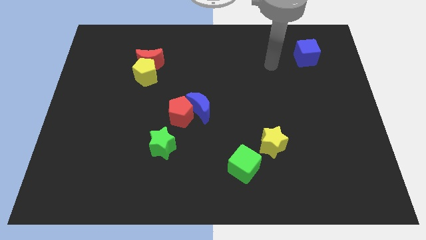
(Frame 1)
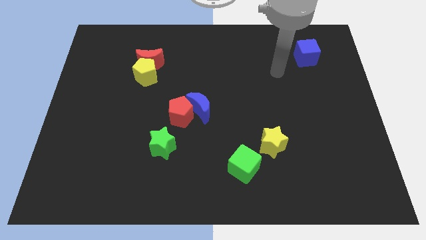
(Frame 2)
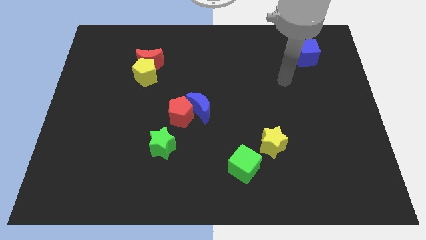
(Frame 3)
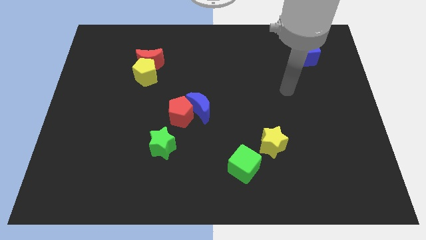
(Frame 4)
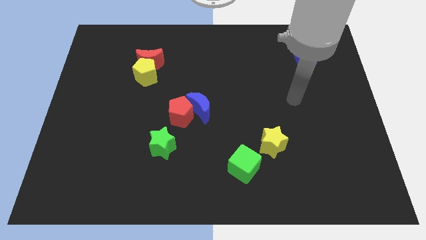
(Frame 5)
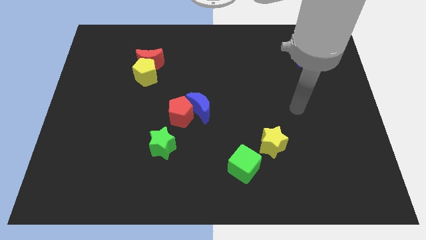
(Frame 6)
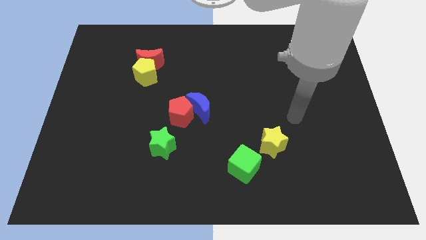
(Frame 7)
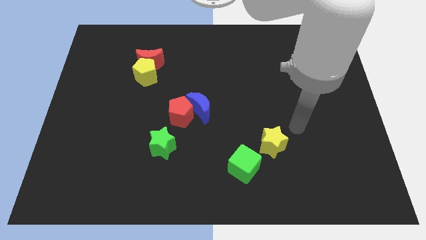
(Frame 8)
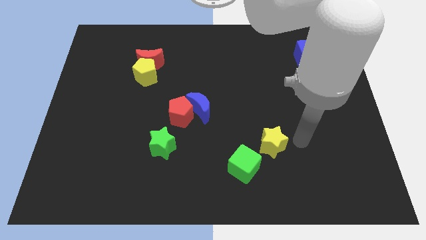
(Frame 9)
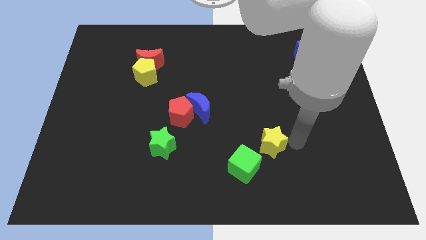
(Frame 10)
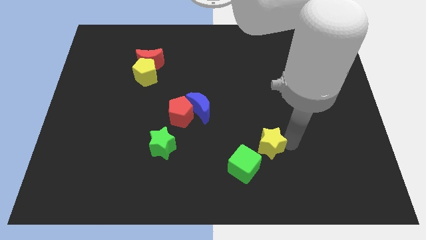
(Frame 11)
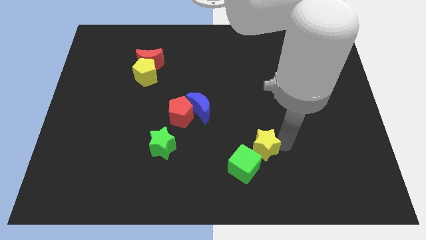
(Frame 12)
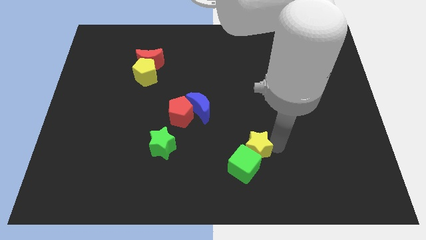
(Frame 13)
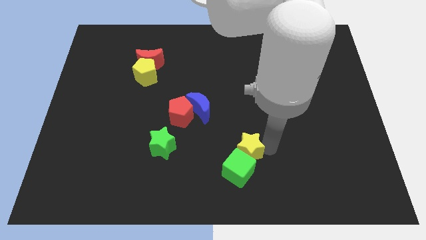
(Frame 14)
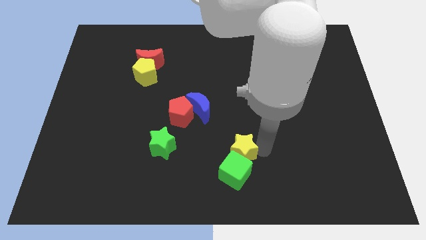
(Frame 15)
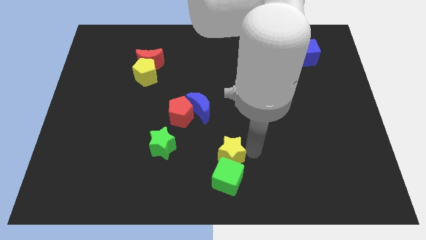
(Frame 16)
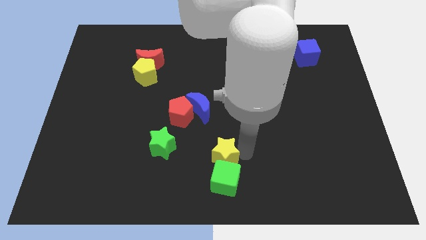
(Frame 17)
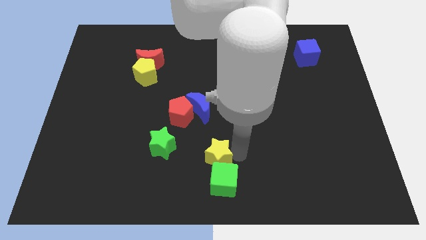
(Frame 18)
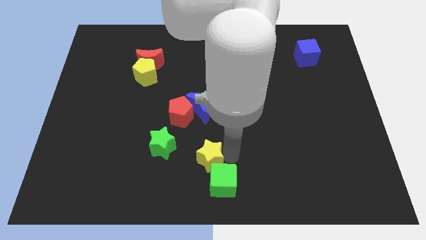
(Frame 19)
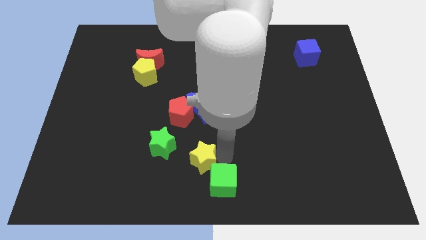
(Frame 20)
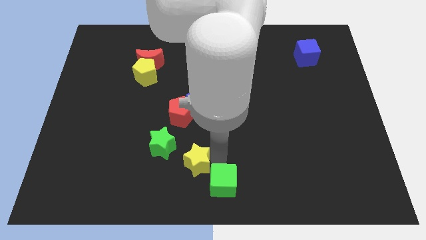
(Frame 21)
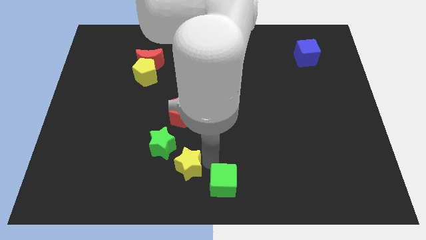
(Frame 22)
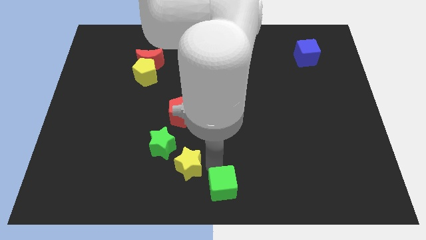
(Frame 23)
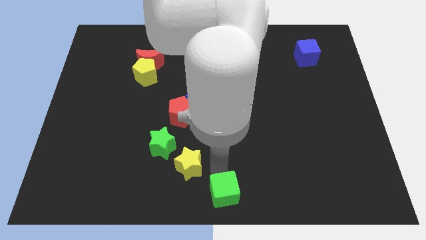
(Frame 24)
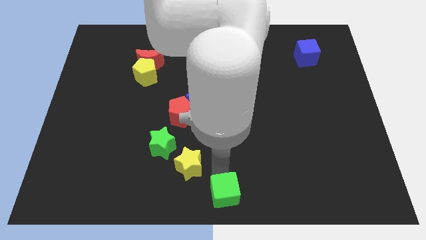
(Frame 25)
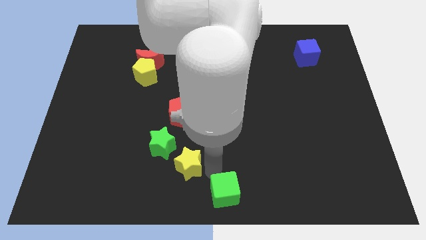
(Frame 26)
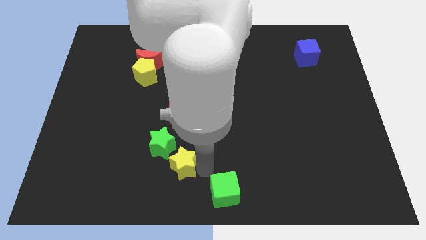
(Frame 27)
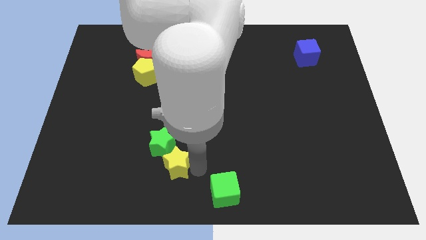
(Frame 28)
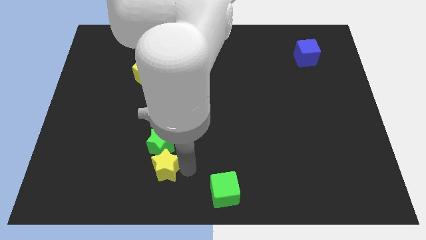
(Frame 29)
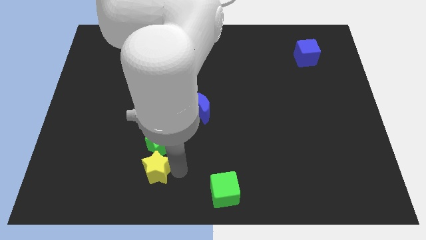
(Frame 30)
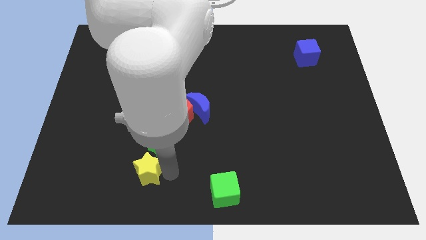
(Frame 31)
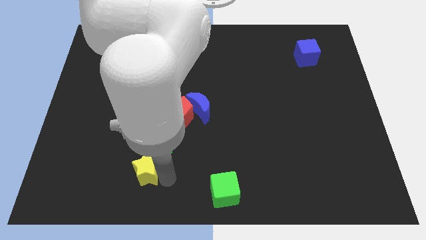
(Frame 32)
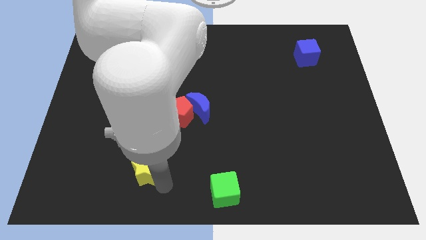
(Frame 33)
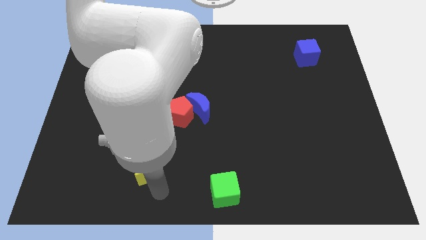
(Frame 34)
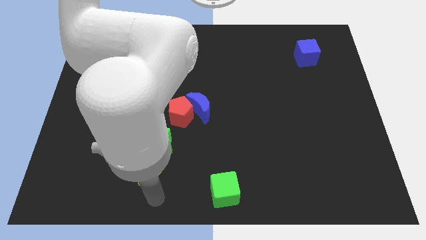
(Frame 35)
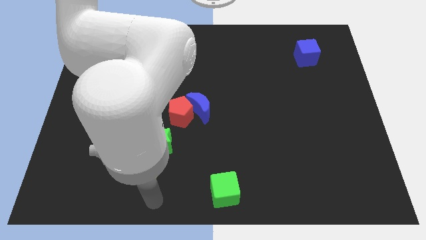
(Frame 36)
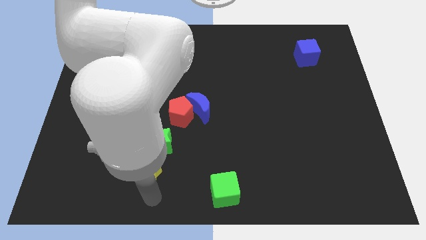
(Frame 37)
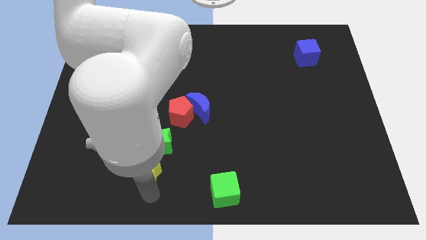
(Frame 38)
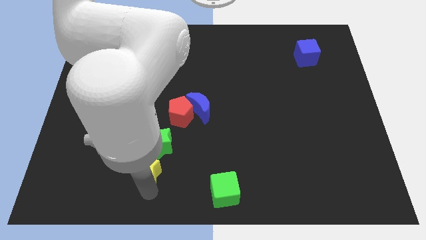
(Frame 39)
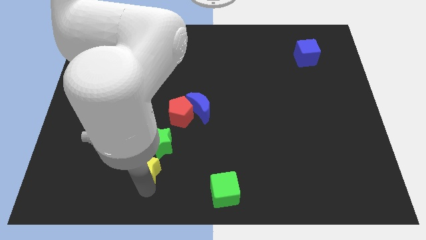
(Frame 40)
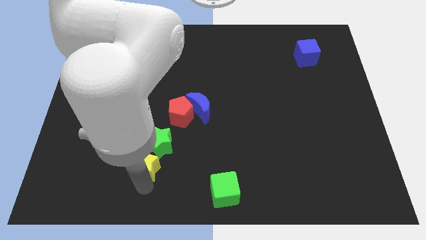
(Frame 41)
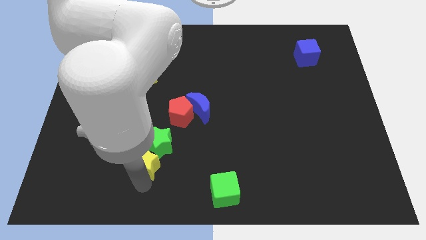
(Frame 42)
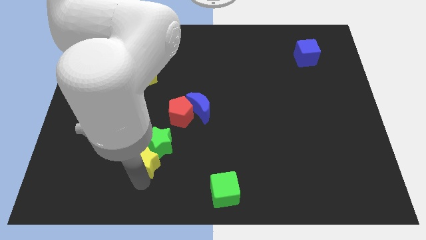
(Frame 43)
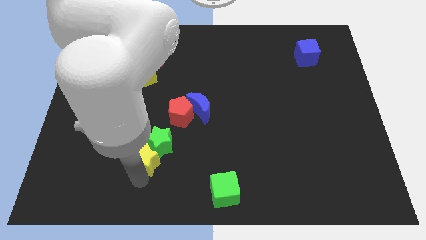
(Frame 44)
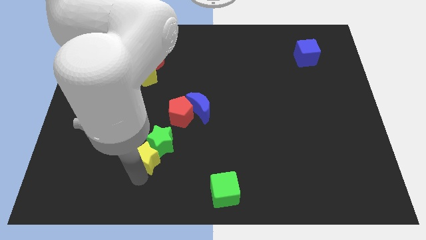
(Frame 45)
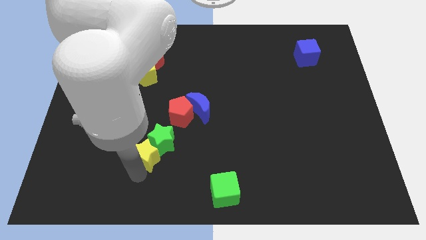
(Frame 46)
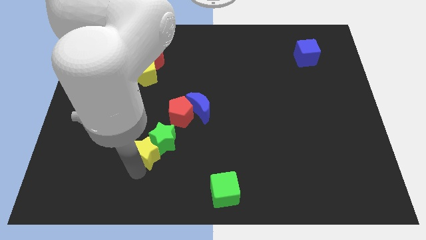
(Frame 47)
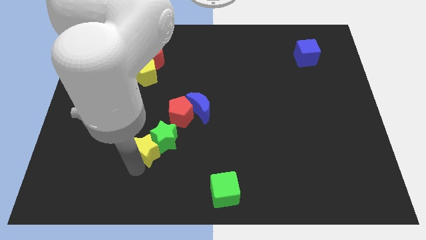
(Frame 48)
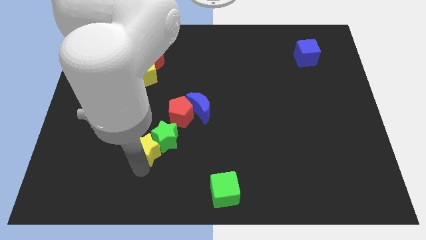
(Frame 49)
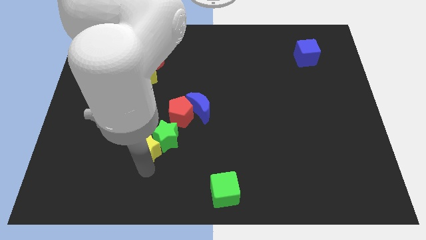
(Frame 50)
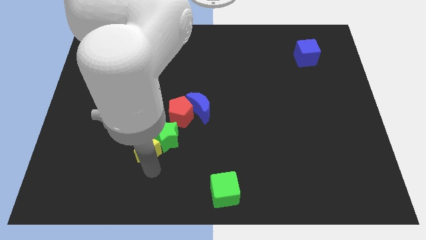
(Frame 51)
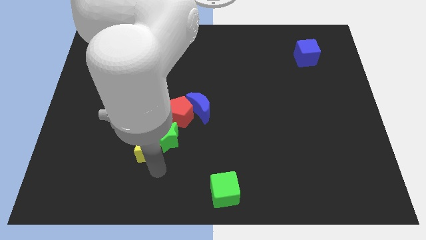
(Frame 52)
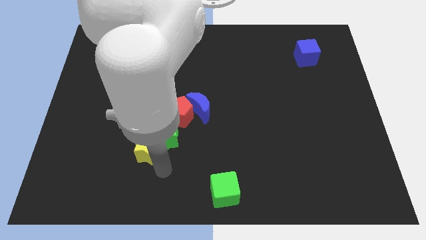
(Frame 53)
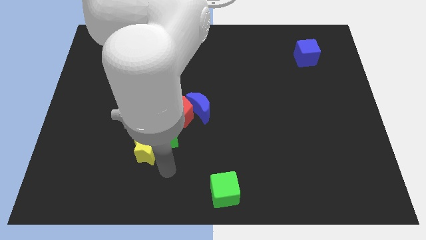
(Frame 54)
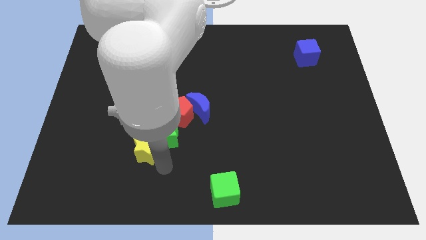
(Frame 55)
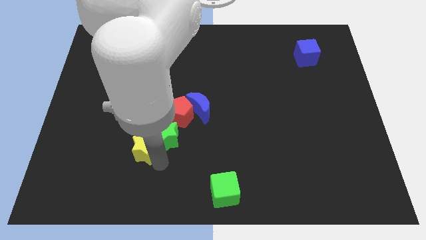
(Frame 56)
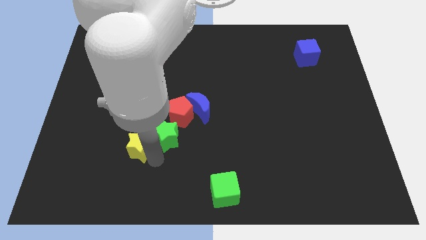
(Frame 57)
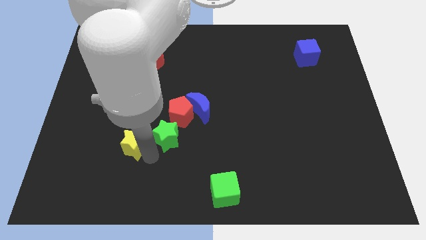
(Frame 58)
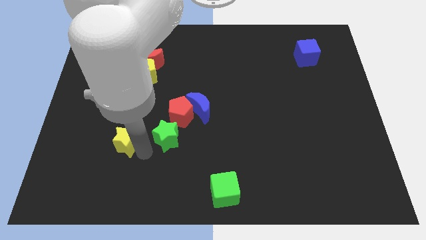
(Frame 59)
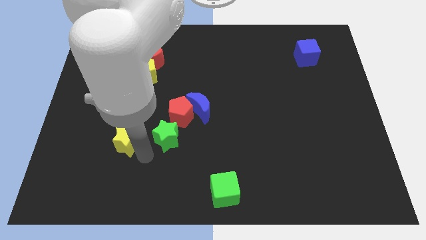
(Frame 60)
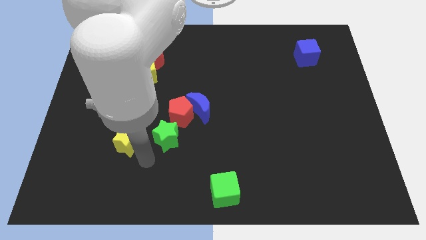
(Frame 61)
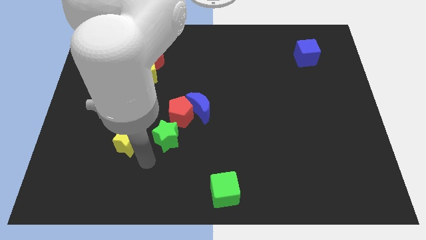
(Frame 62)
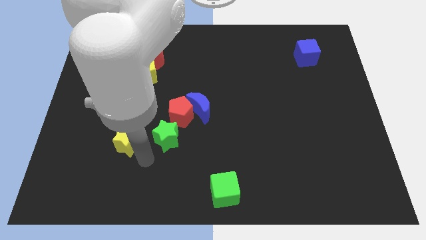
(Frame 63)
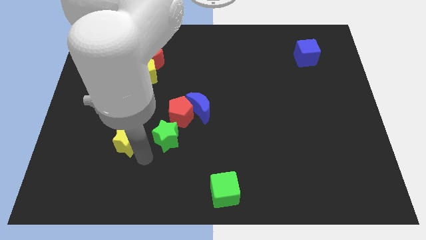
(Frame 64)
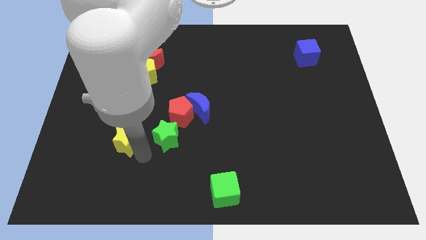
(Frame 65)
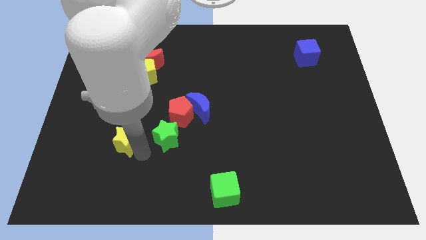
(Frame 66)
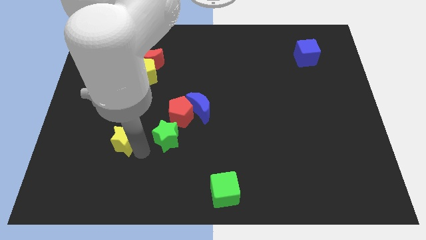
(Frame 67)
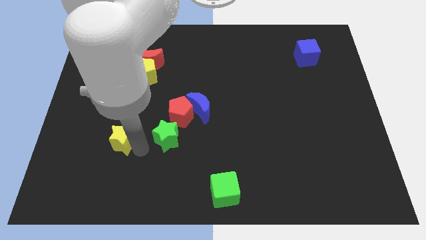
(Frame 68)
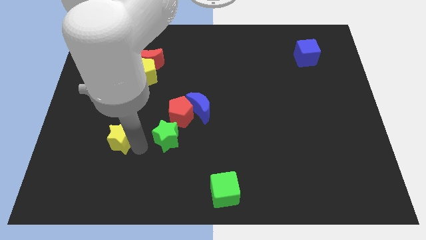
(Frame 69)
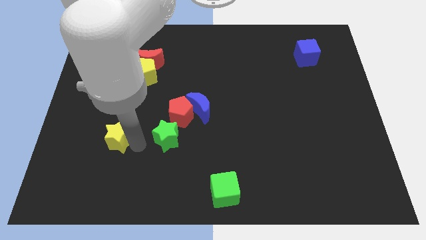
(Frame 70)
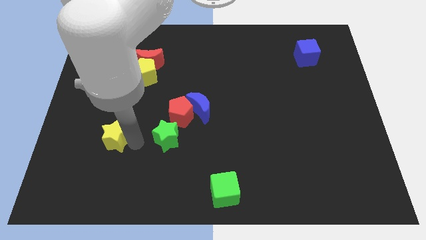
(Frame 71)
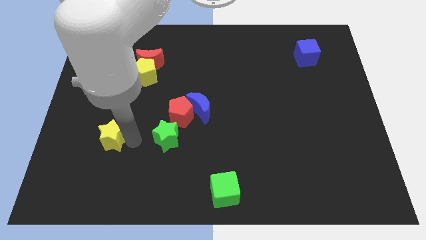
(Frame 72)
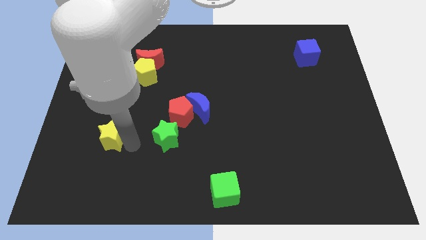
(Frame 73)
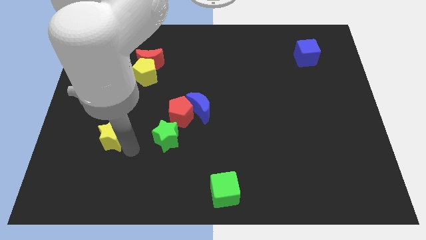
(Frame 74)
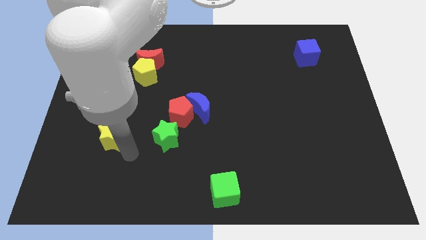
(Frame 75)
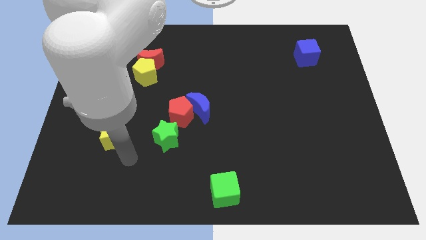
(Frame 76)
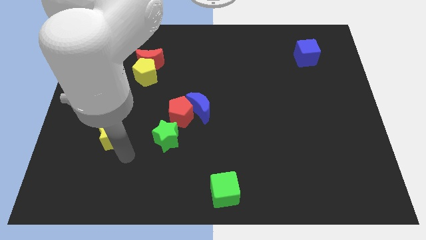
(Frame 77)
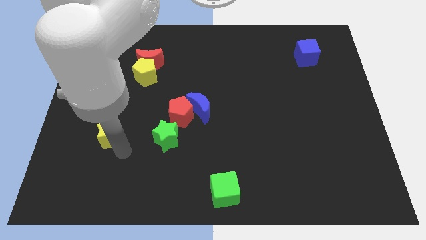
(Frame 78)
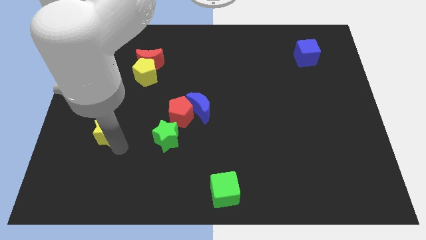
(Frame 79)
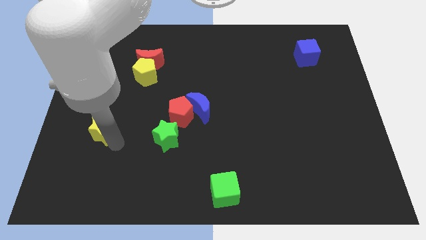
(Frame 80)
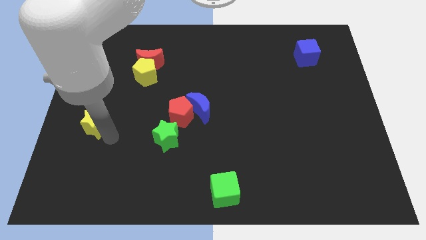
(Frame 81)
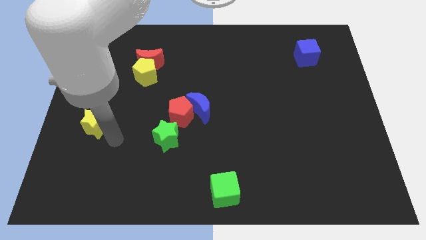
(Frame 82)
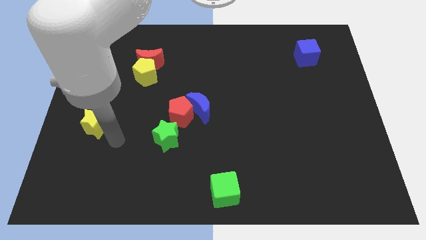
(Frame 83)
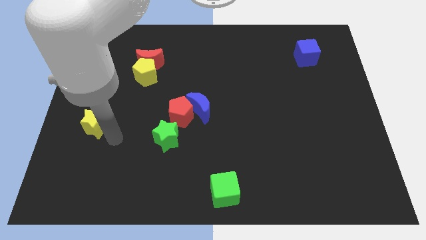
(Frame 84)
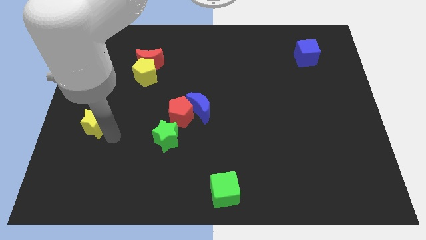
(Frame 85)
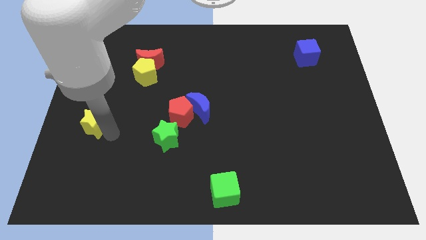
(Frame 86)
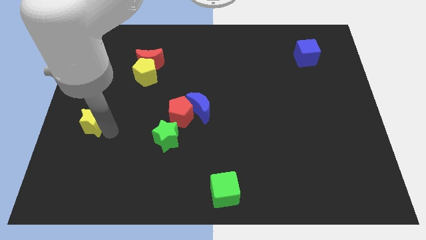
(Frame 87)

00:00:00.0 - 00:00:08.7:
slide the yellow star to the left side of the board
